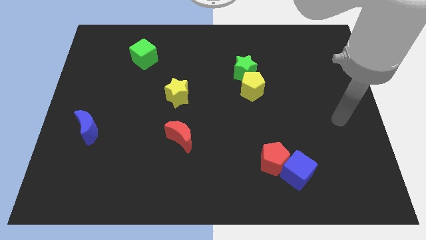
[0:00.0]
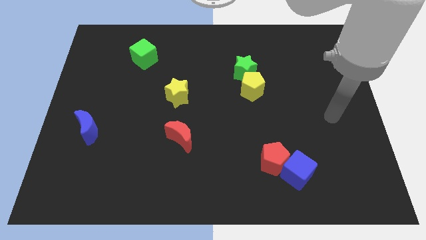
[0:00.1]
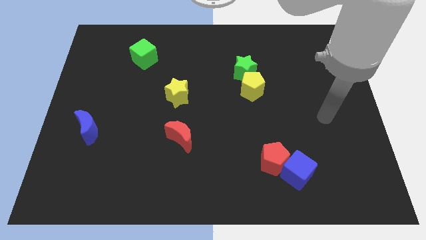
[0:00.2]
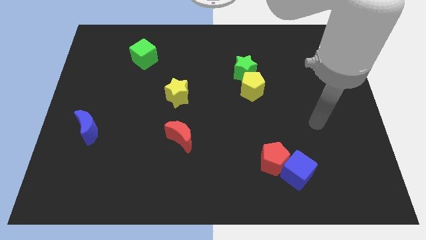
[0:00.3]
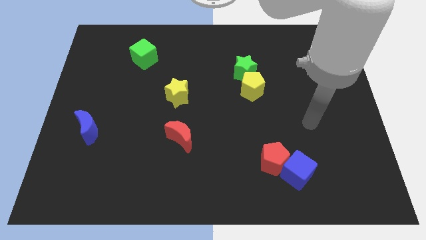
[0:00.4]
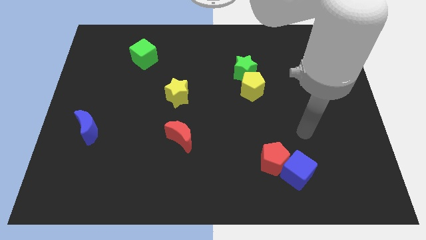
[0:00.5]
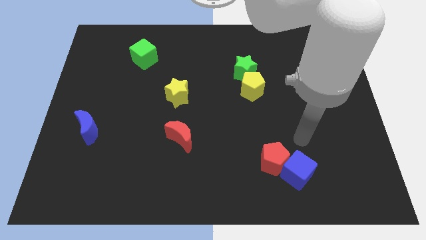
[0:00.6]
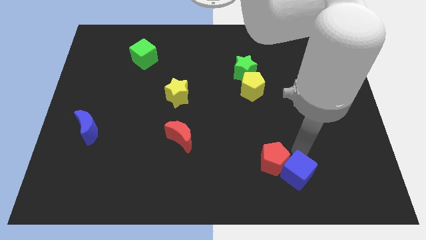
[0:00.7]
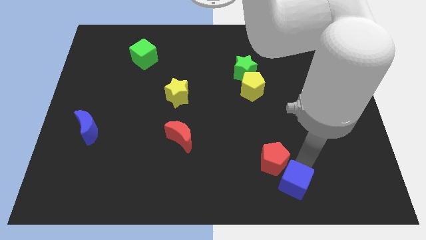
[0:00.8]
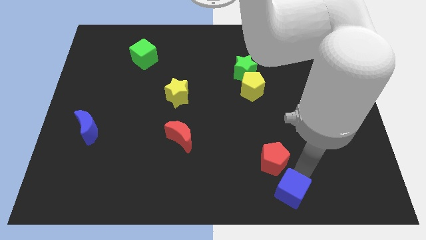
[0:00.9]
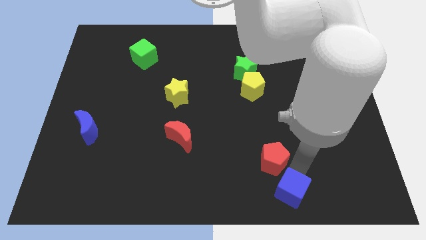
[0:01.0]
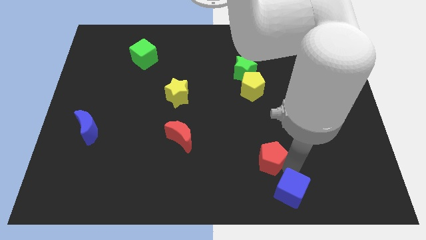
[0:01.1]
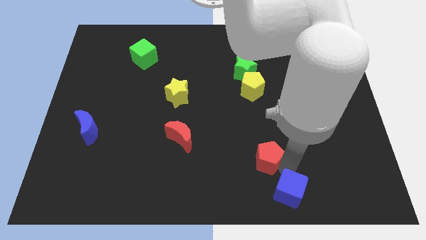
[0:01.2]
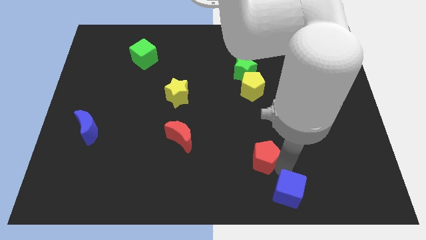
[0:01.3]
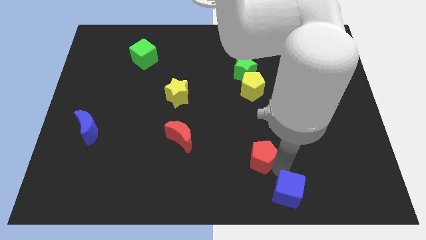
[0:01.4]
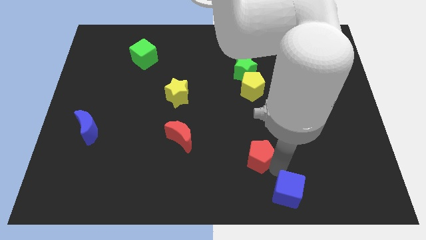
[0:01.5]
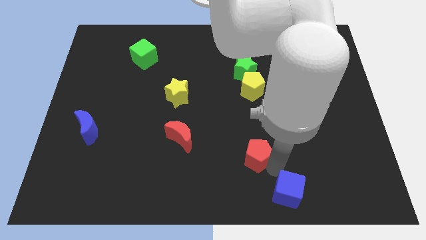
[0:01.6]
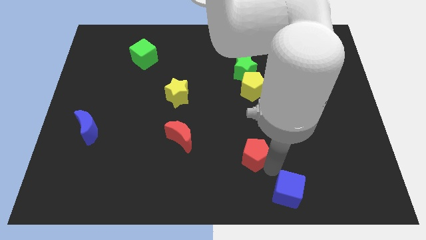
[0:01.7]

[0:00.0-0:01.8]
move the red pentagon away from the blue cube

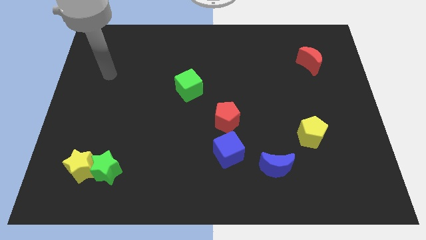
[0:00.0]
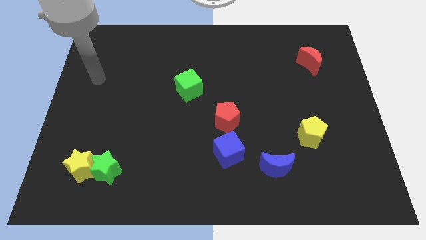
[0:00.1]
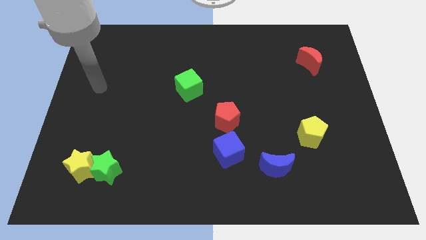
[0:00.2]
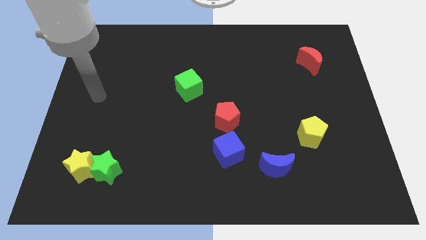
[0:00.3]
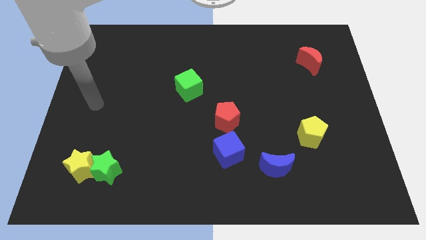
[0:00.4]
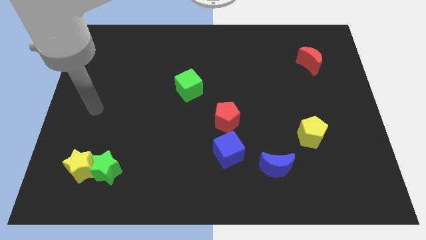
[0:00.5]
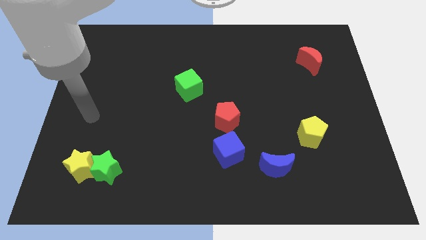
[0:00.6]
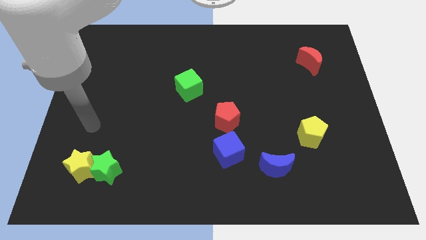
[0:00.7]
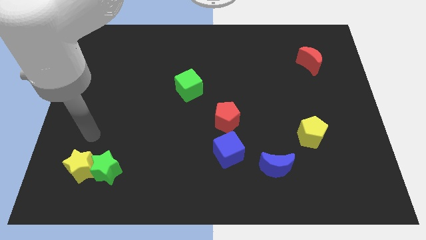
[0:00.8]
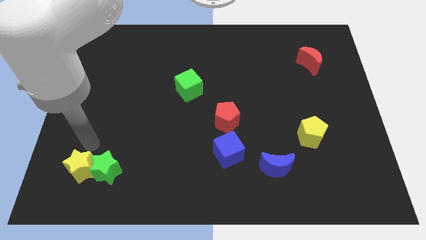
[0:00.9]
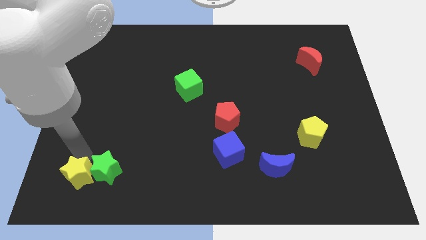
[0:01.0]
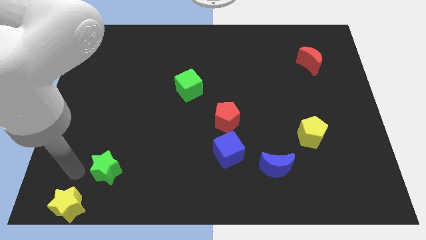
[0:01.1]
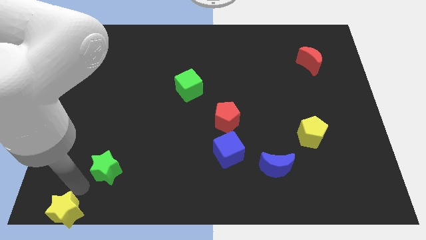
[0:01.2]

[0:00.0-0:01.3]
separate the green star from the yellow star

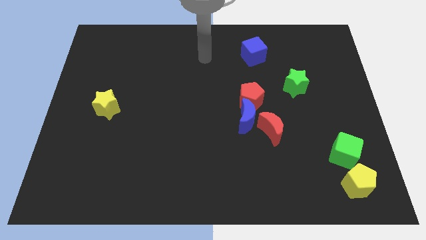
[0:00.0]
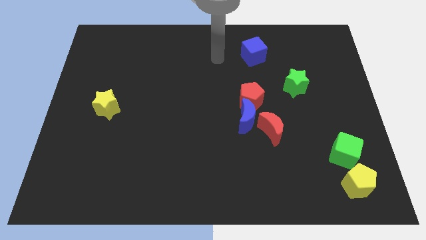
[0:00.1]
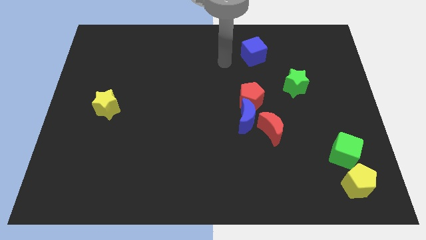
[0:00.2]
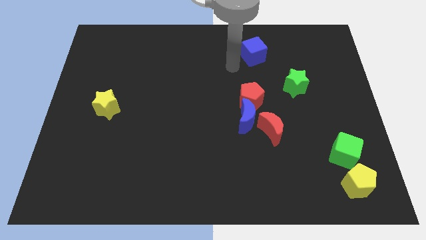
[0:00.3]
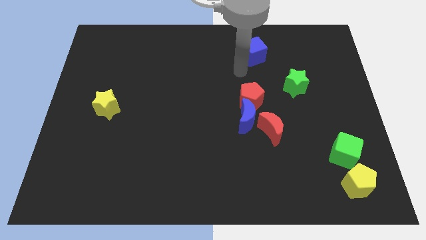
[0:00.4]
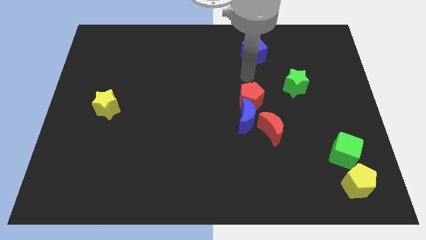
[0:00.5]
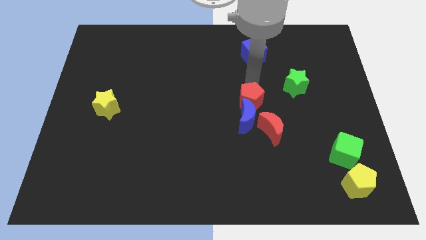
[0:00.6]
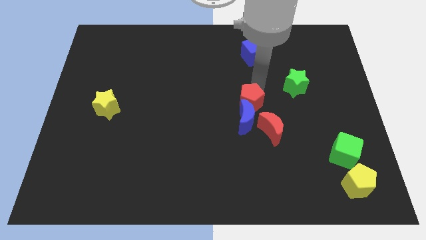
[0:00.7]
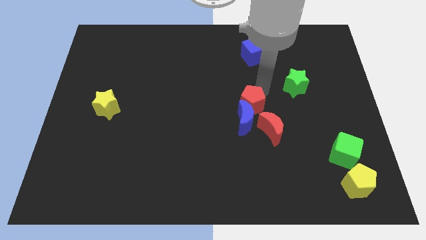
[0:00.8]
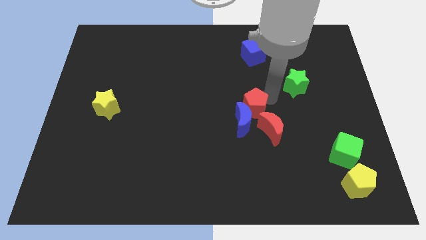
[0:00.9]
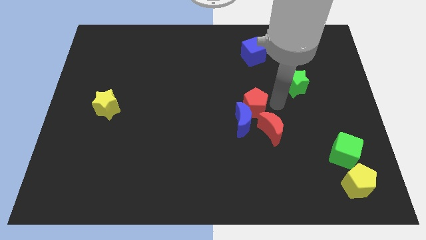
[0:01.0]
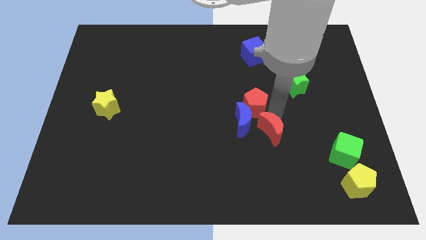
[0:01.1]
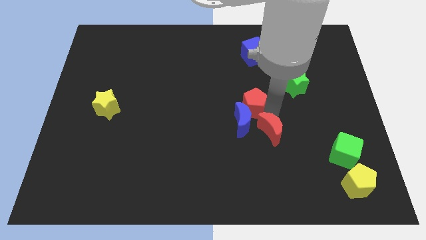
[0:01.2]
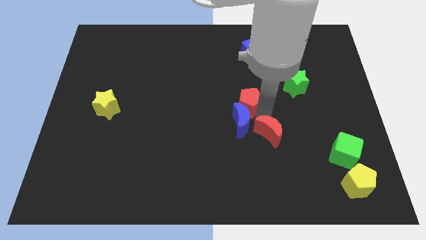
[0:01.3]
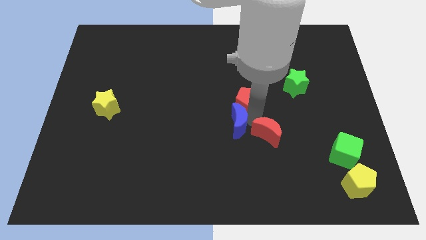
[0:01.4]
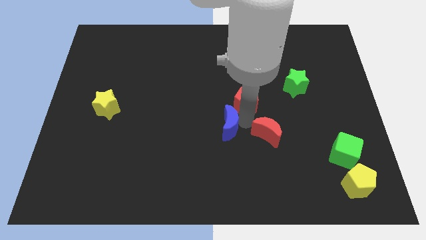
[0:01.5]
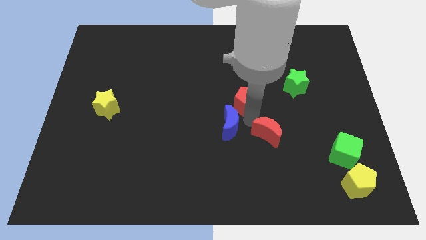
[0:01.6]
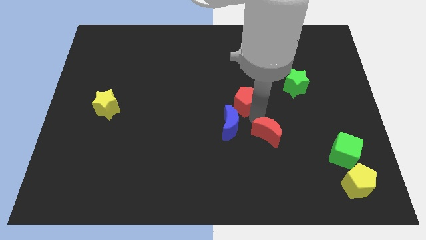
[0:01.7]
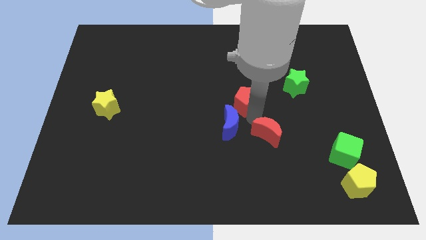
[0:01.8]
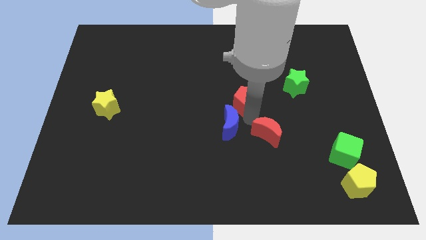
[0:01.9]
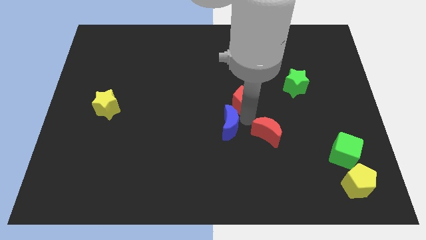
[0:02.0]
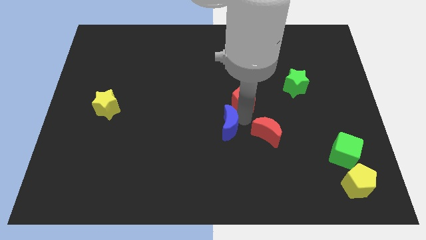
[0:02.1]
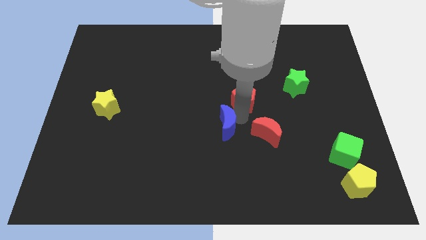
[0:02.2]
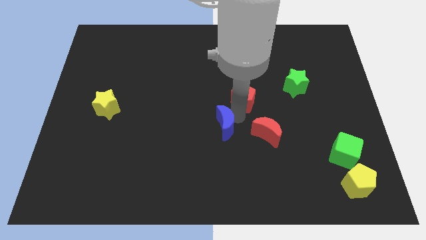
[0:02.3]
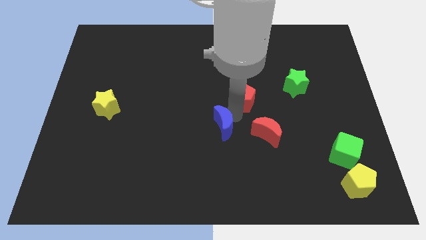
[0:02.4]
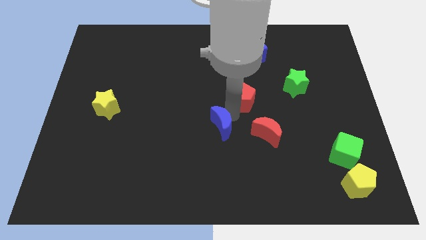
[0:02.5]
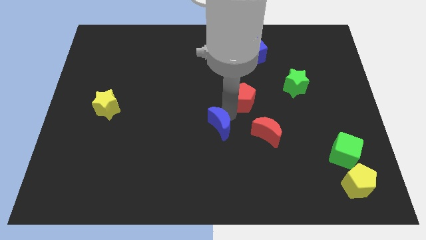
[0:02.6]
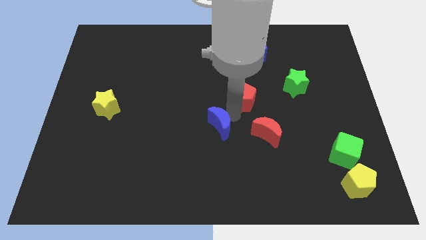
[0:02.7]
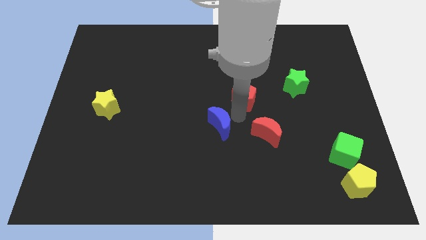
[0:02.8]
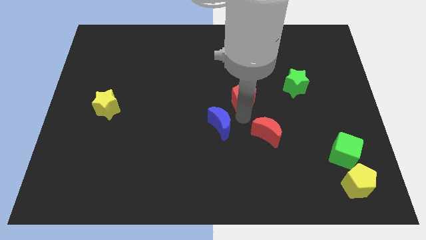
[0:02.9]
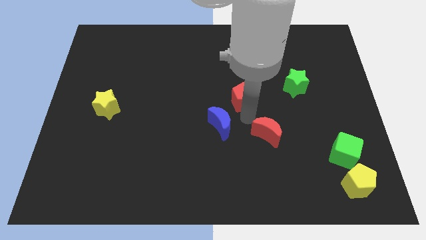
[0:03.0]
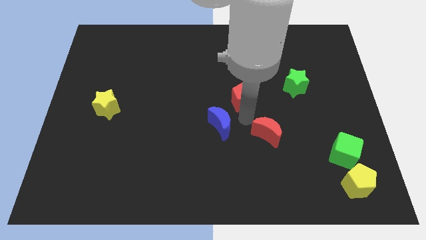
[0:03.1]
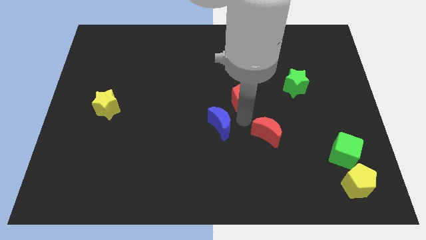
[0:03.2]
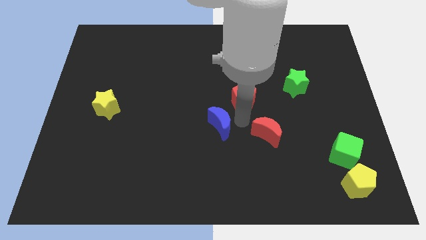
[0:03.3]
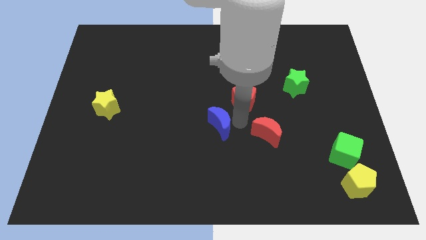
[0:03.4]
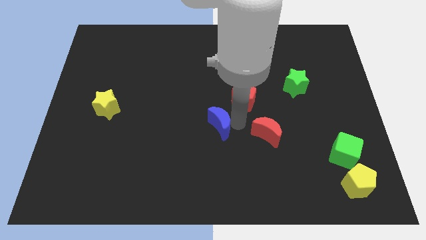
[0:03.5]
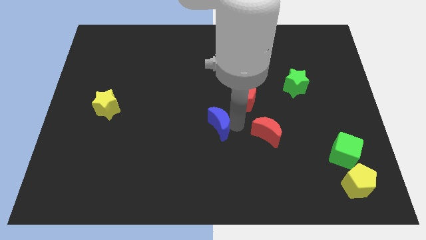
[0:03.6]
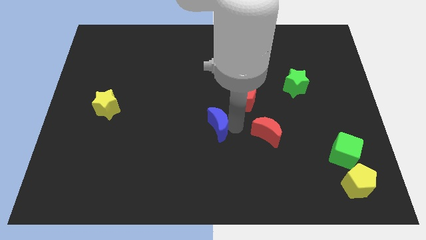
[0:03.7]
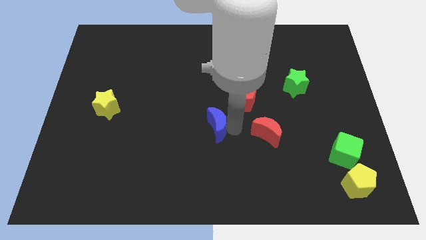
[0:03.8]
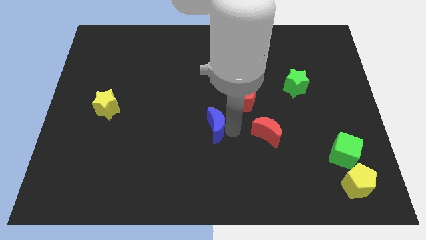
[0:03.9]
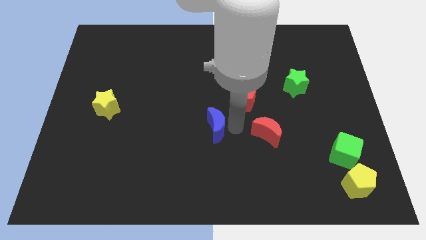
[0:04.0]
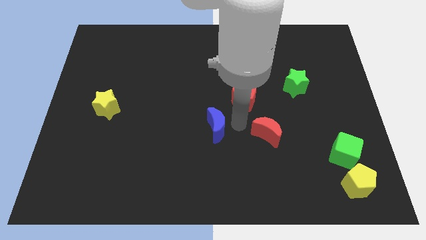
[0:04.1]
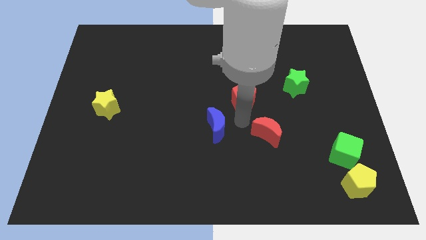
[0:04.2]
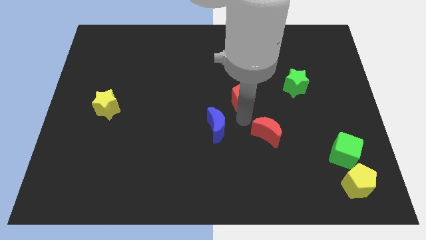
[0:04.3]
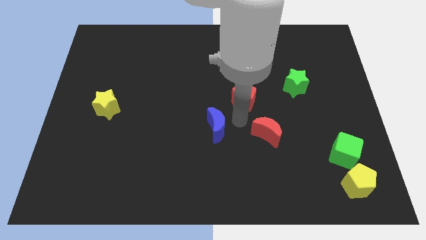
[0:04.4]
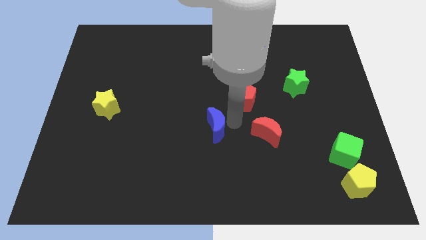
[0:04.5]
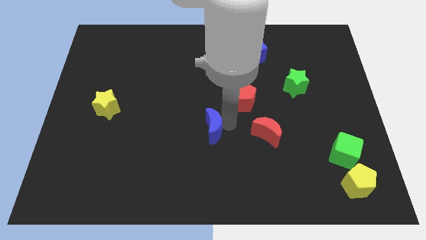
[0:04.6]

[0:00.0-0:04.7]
separate the blue moon from the red pentagon and red moon

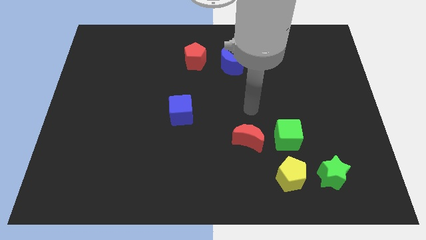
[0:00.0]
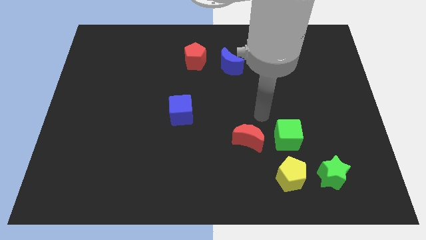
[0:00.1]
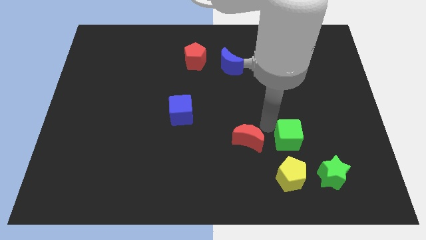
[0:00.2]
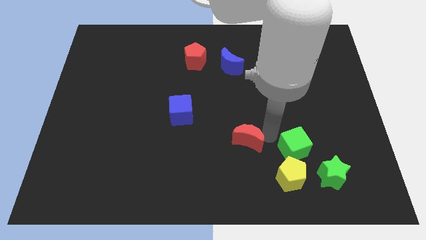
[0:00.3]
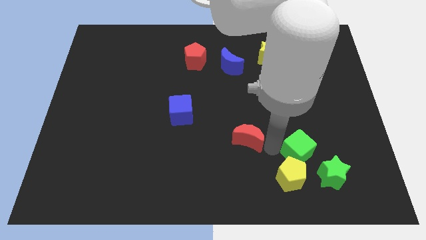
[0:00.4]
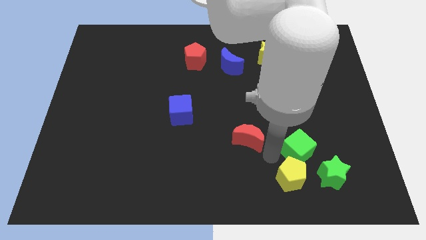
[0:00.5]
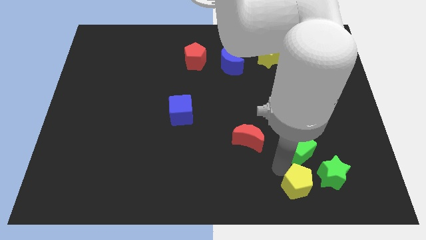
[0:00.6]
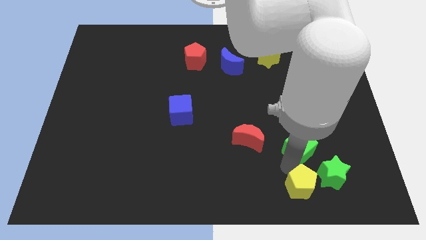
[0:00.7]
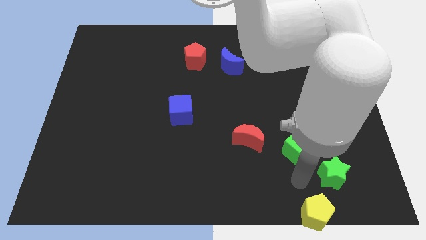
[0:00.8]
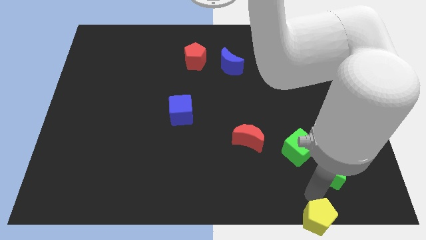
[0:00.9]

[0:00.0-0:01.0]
pull the green star apart from the yellow pentagon

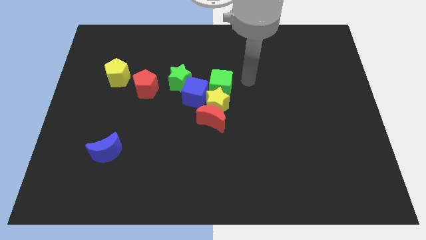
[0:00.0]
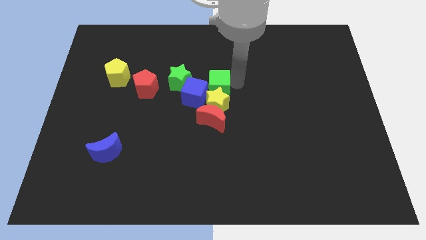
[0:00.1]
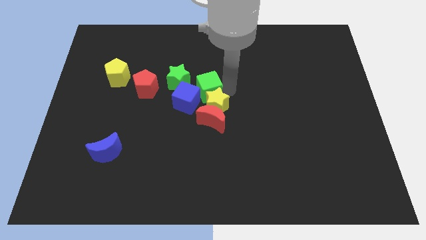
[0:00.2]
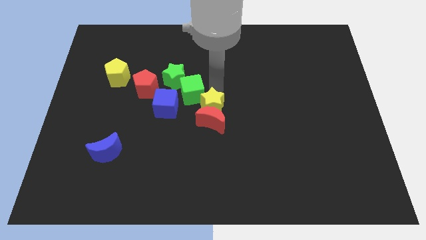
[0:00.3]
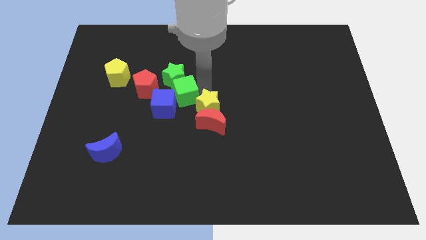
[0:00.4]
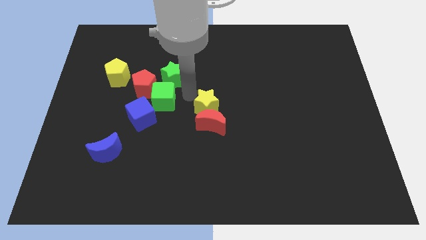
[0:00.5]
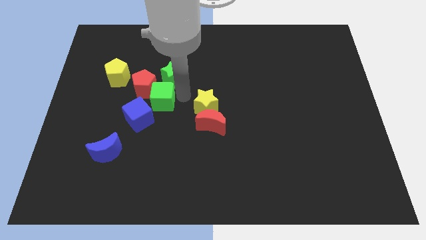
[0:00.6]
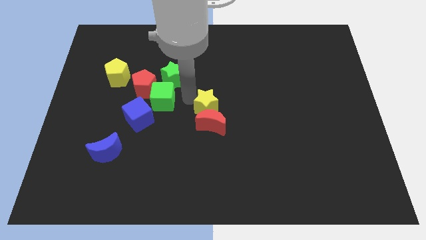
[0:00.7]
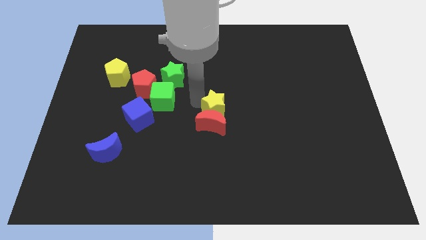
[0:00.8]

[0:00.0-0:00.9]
move the yellow star away from the group of blocks
